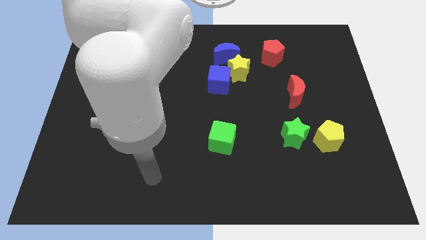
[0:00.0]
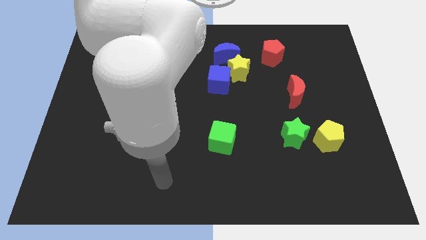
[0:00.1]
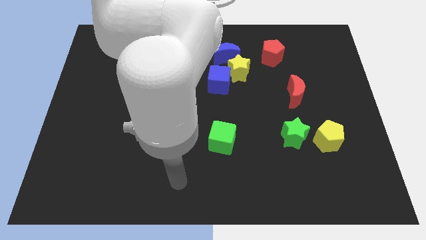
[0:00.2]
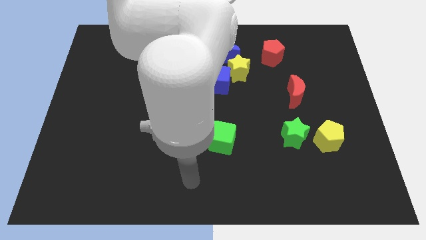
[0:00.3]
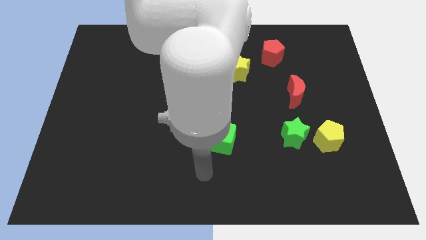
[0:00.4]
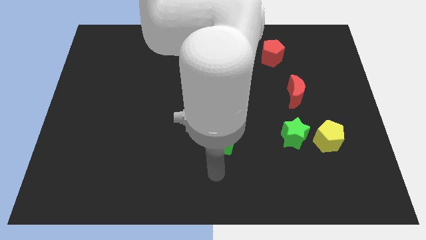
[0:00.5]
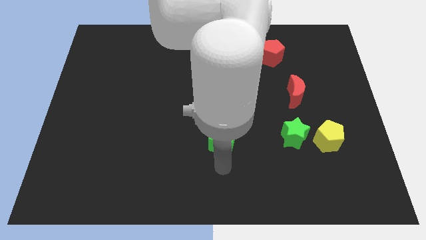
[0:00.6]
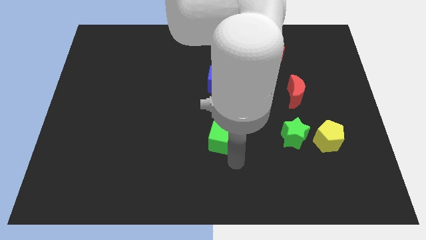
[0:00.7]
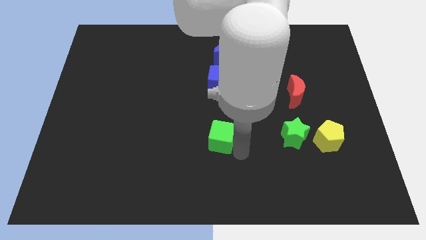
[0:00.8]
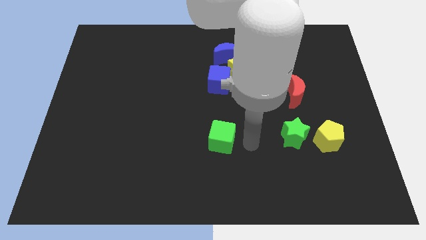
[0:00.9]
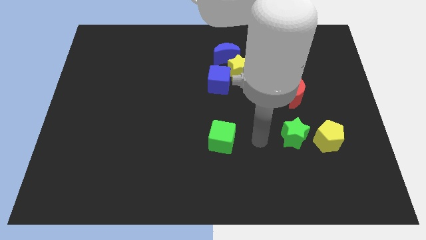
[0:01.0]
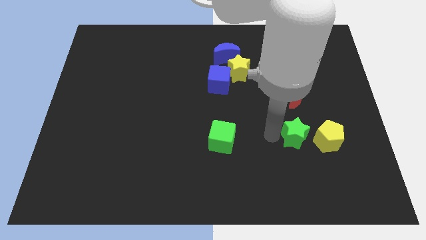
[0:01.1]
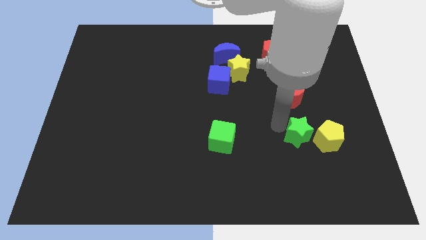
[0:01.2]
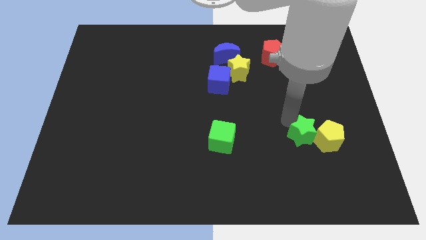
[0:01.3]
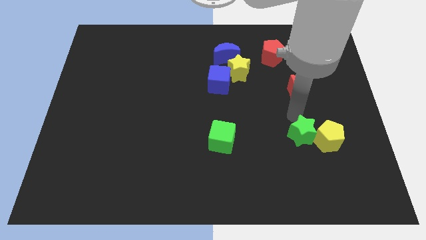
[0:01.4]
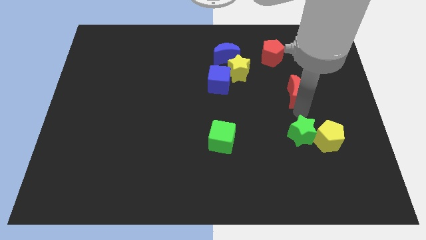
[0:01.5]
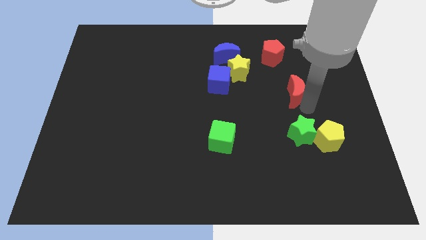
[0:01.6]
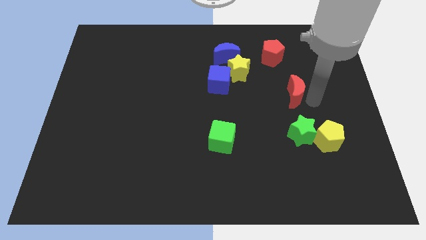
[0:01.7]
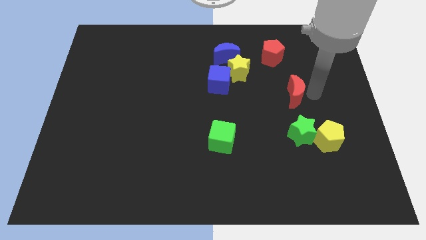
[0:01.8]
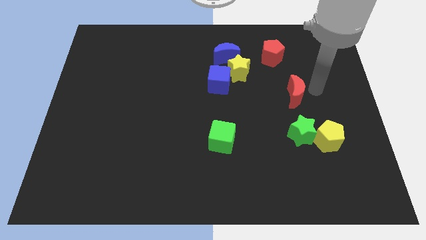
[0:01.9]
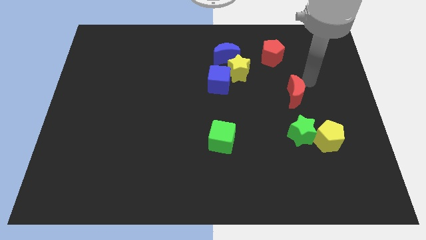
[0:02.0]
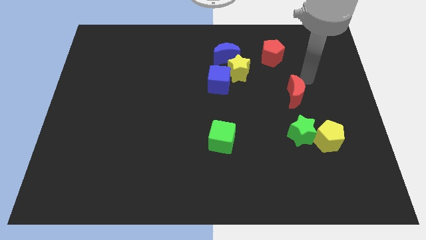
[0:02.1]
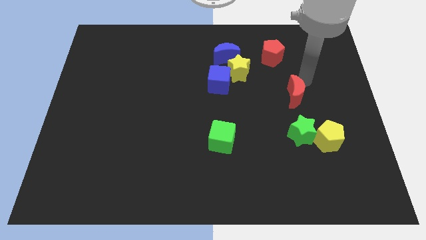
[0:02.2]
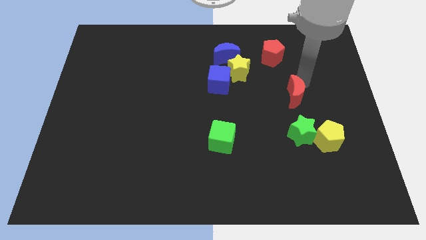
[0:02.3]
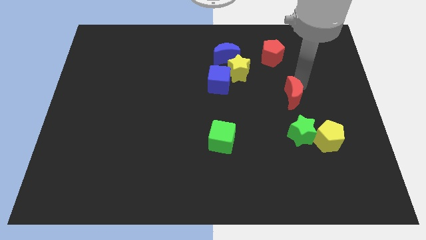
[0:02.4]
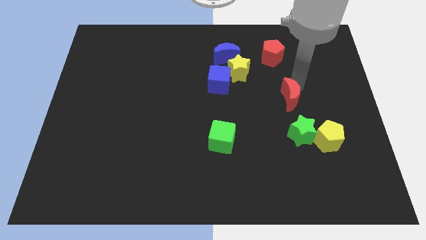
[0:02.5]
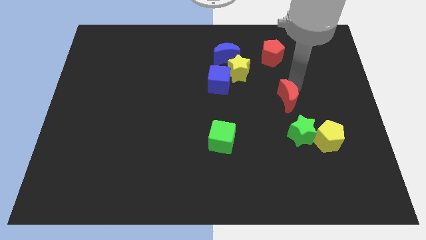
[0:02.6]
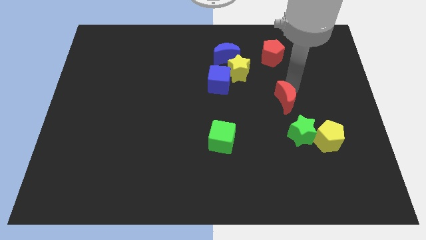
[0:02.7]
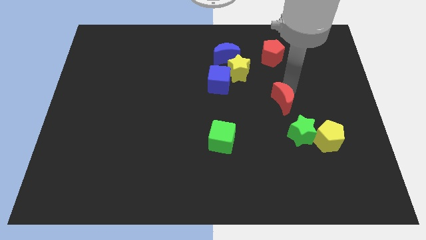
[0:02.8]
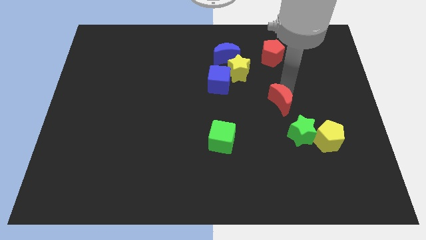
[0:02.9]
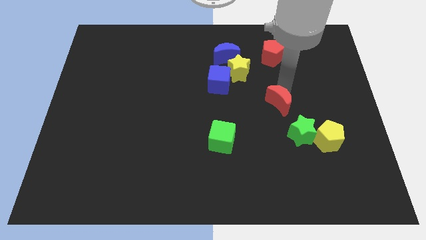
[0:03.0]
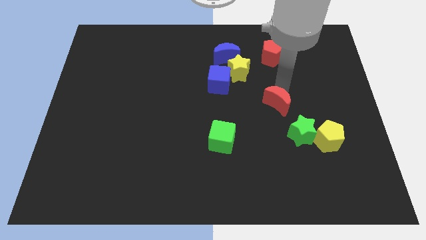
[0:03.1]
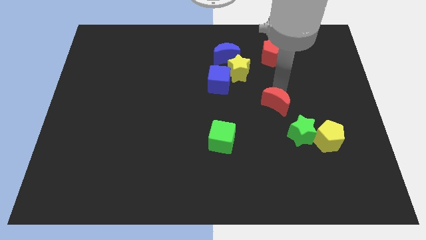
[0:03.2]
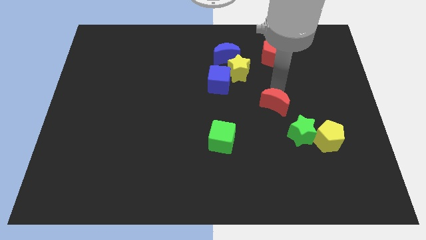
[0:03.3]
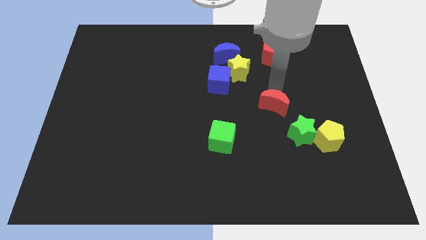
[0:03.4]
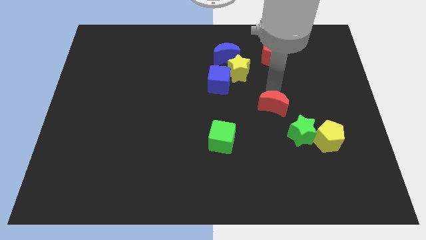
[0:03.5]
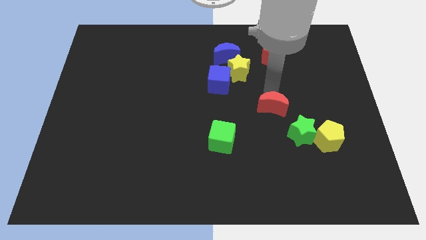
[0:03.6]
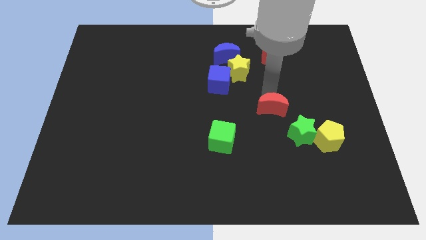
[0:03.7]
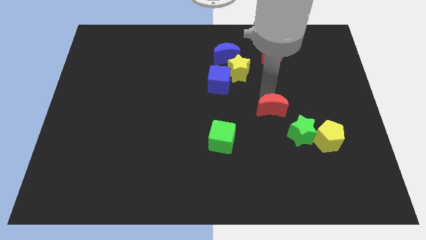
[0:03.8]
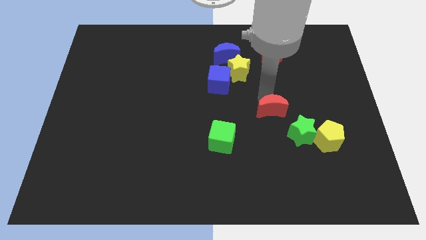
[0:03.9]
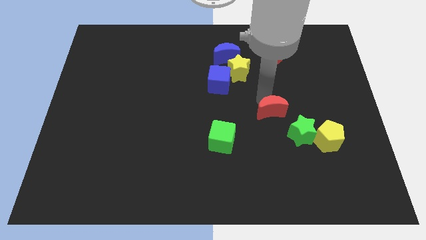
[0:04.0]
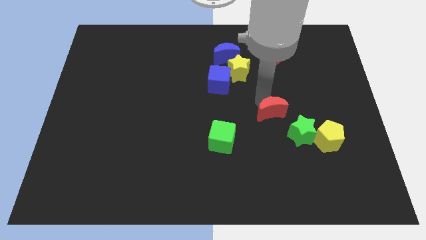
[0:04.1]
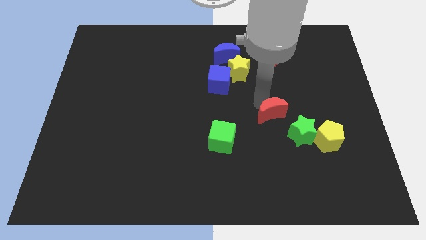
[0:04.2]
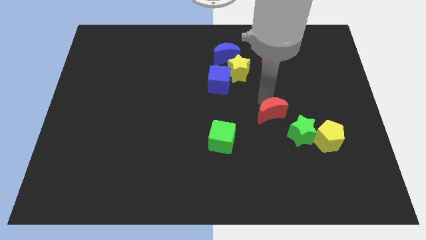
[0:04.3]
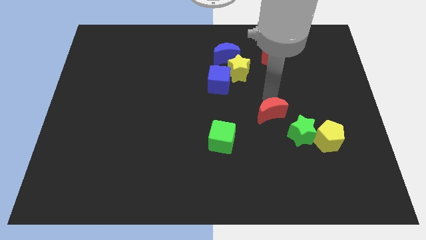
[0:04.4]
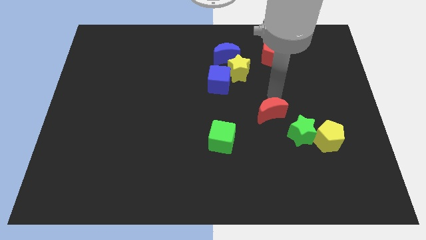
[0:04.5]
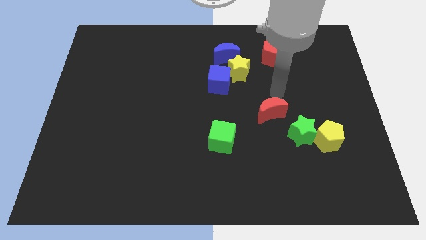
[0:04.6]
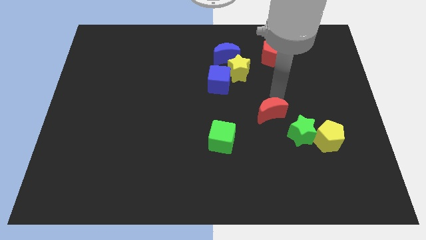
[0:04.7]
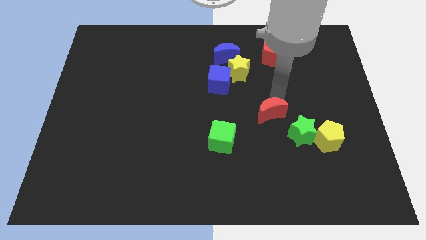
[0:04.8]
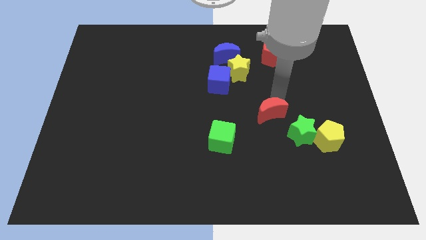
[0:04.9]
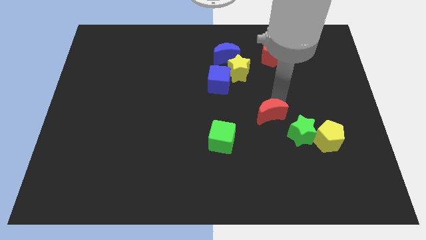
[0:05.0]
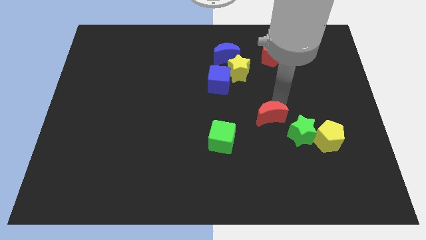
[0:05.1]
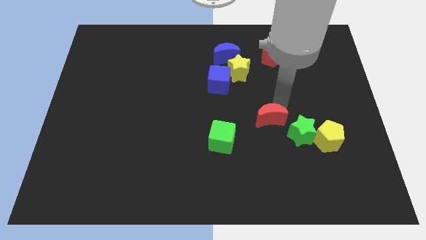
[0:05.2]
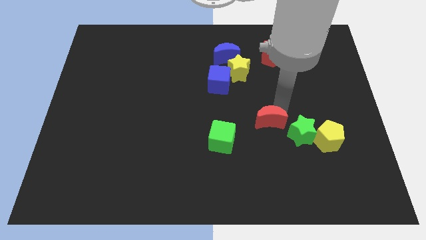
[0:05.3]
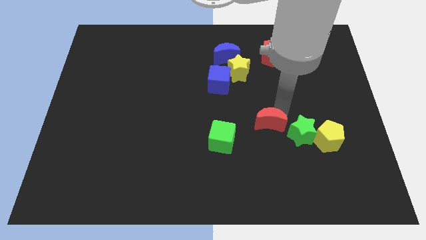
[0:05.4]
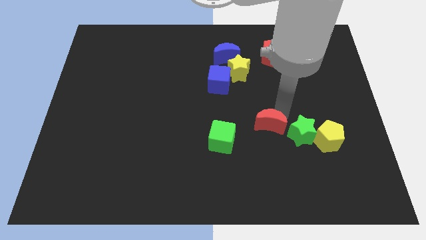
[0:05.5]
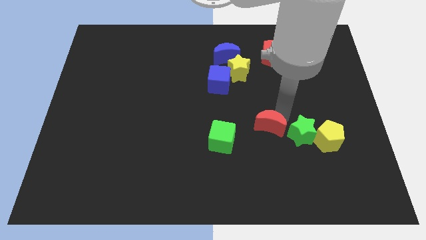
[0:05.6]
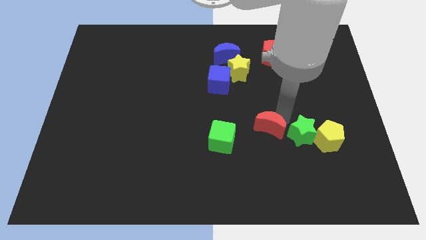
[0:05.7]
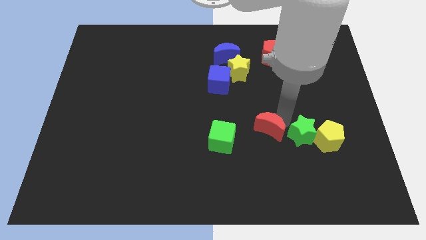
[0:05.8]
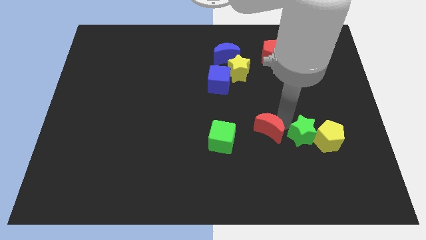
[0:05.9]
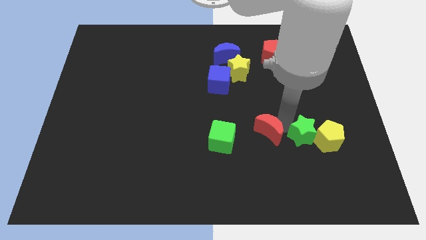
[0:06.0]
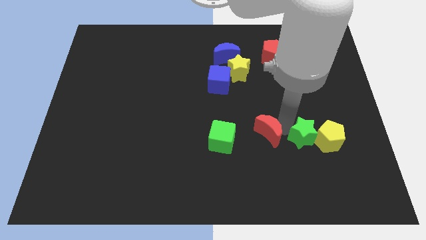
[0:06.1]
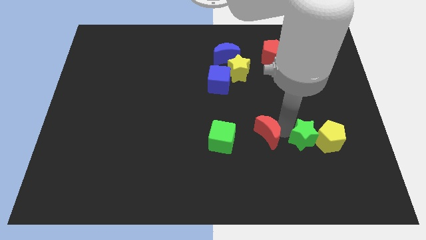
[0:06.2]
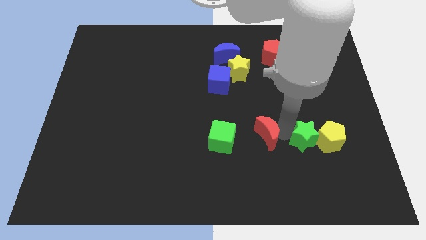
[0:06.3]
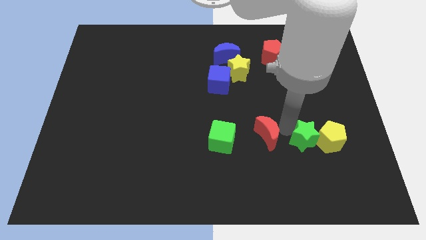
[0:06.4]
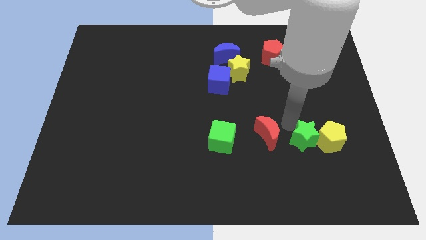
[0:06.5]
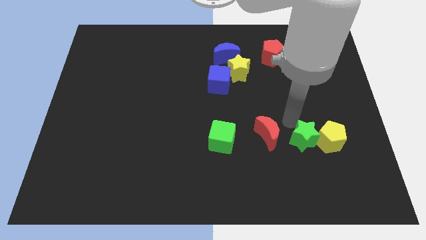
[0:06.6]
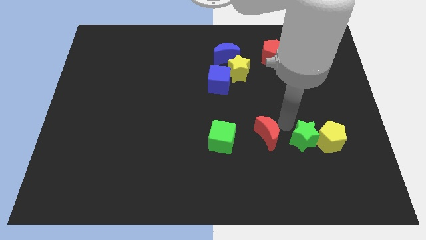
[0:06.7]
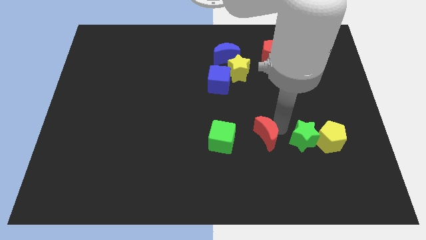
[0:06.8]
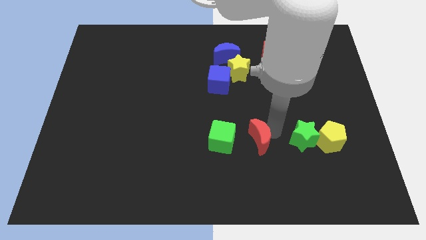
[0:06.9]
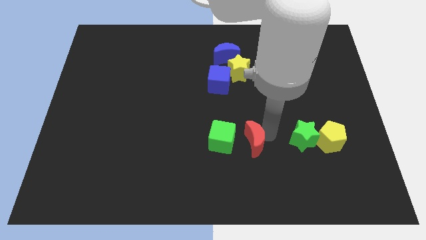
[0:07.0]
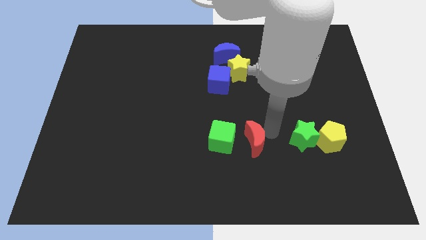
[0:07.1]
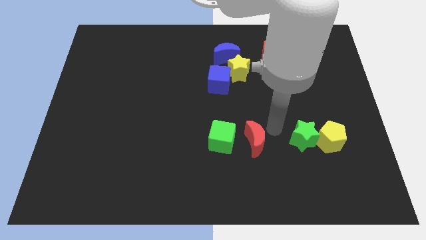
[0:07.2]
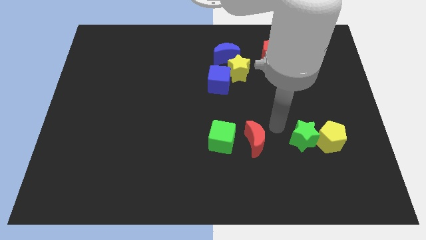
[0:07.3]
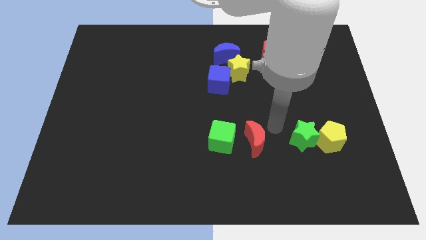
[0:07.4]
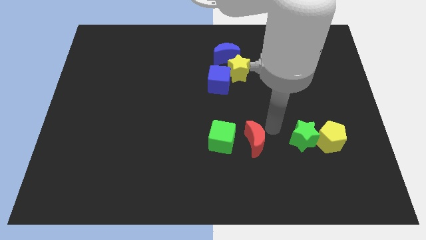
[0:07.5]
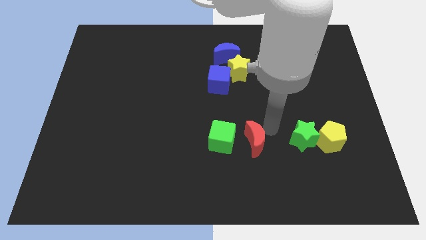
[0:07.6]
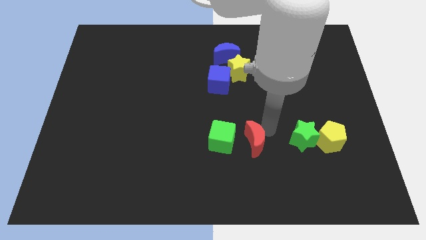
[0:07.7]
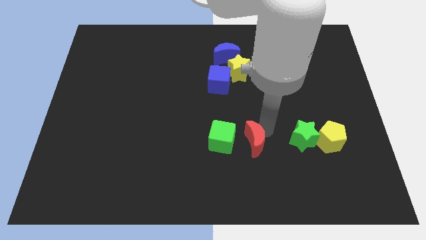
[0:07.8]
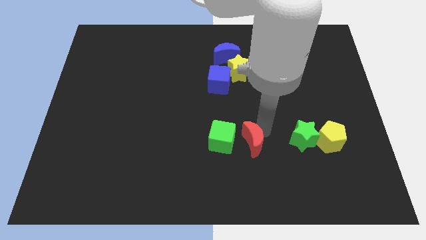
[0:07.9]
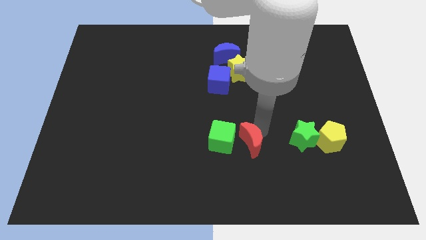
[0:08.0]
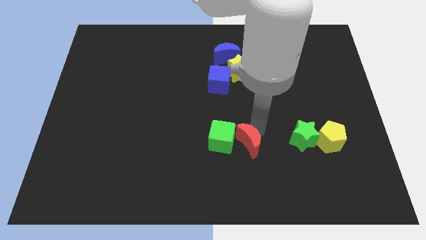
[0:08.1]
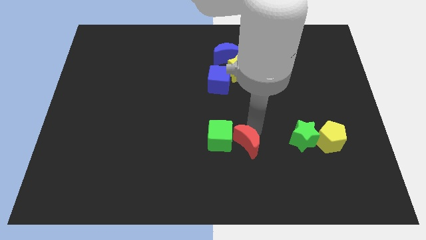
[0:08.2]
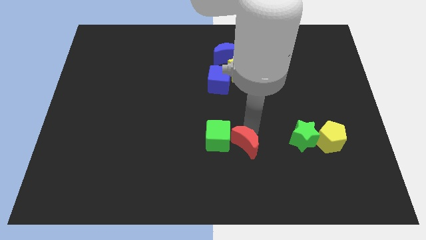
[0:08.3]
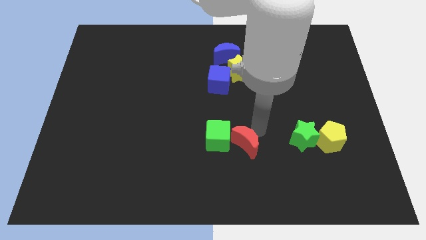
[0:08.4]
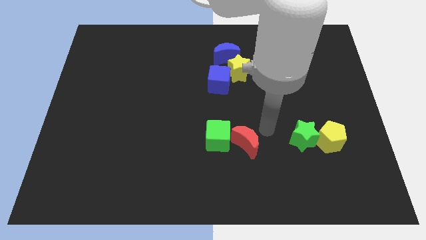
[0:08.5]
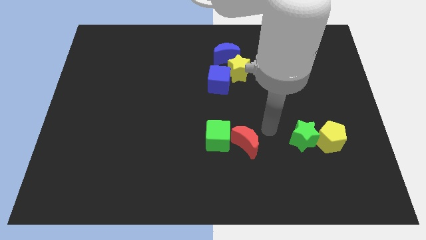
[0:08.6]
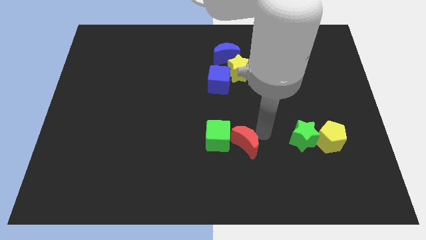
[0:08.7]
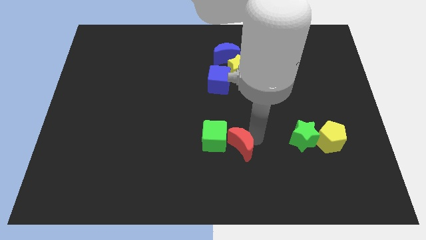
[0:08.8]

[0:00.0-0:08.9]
push the red moon downwards and left
